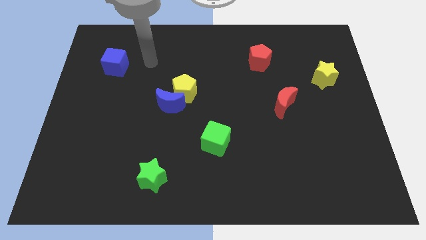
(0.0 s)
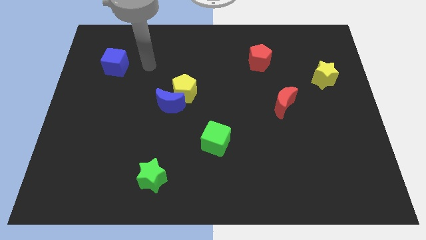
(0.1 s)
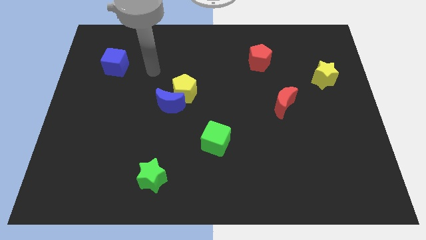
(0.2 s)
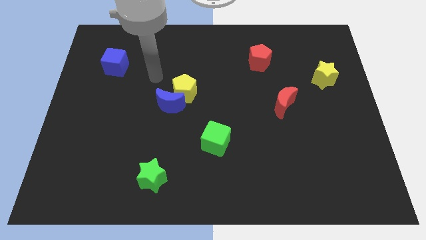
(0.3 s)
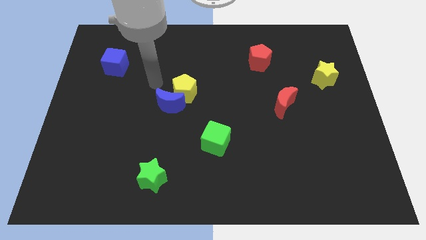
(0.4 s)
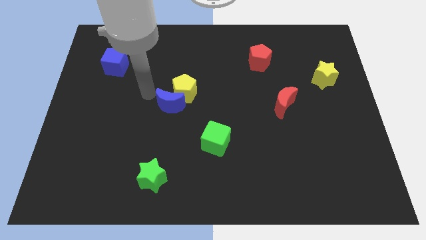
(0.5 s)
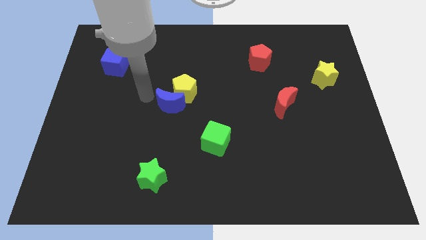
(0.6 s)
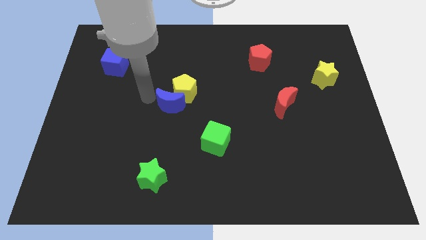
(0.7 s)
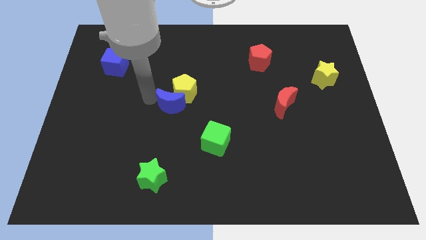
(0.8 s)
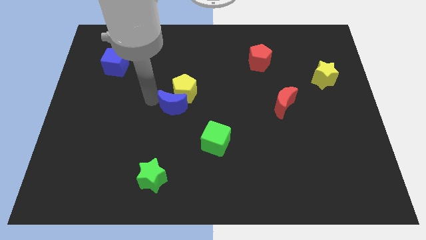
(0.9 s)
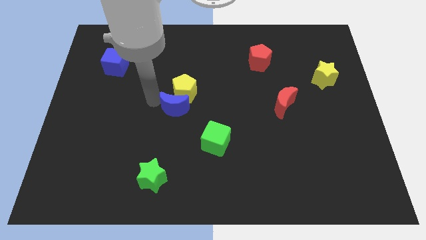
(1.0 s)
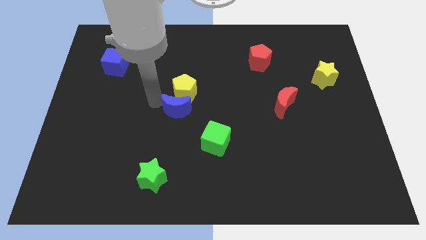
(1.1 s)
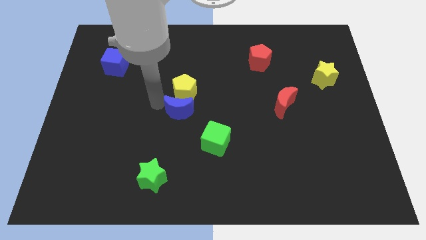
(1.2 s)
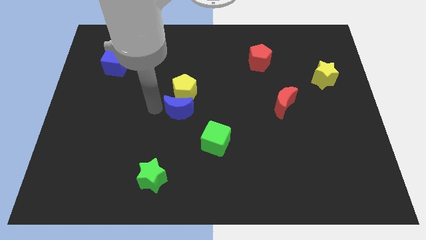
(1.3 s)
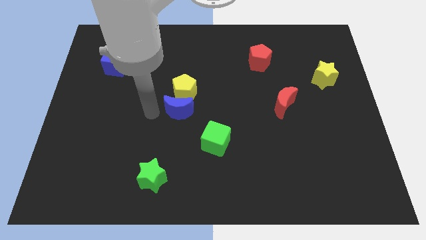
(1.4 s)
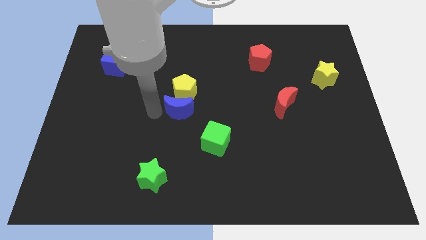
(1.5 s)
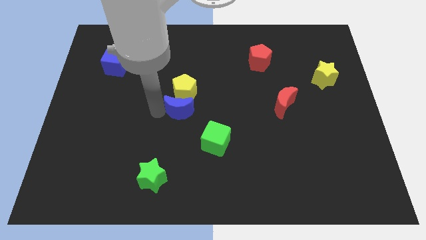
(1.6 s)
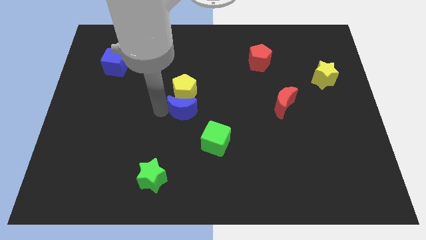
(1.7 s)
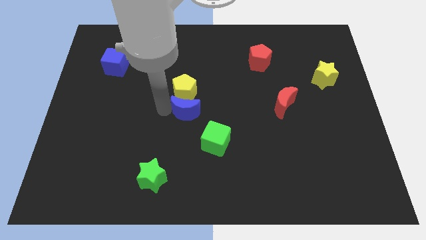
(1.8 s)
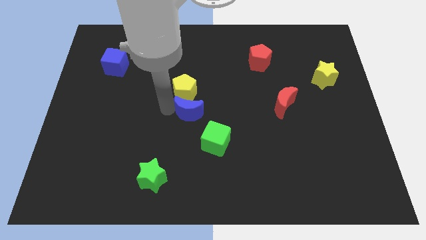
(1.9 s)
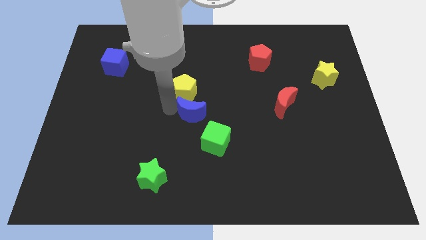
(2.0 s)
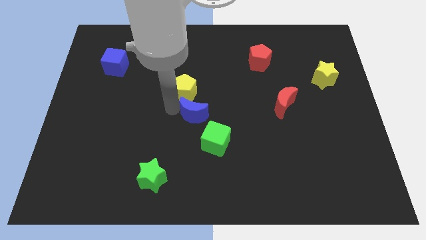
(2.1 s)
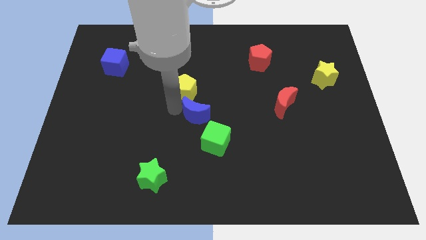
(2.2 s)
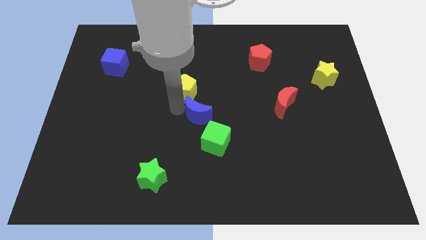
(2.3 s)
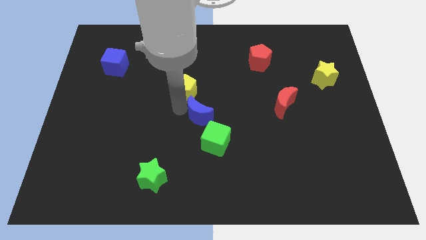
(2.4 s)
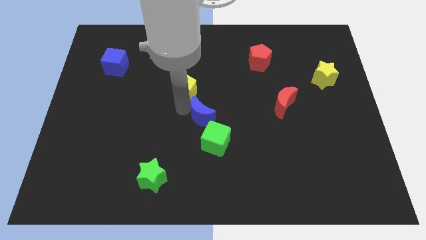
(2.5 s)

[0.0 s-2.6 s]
push the blue moon a bit to the right

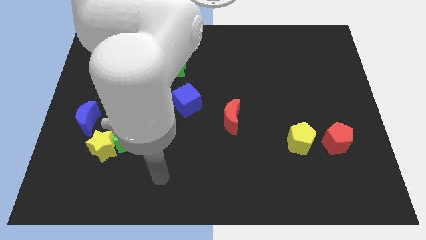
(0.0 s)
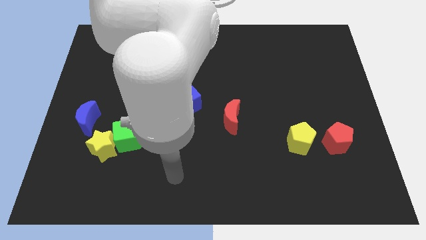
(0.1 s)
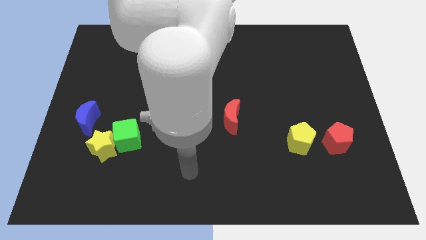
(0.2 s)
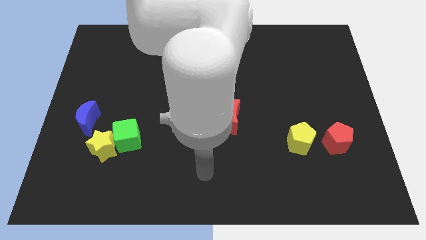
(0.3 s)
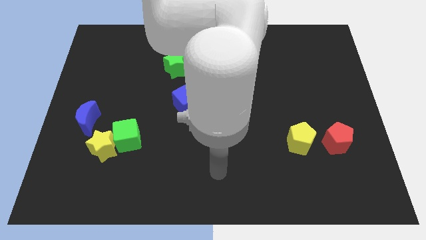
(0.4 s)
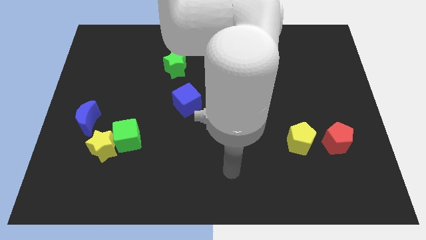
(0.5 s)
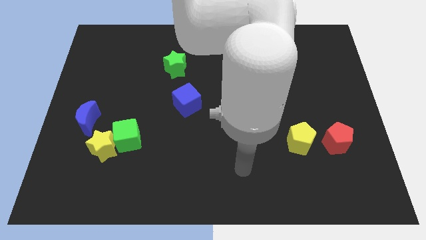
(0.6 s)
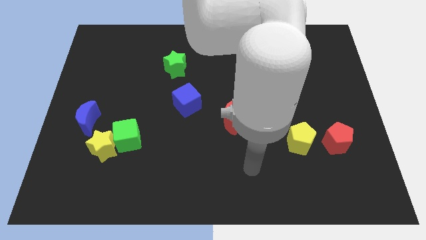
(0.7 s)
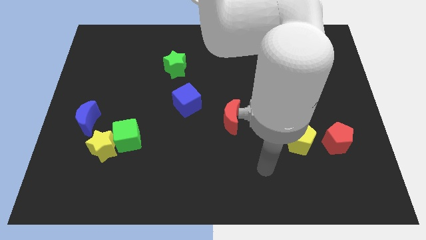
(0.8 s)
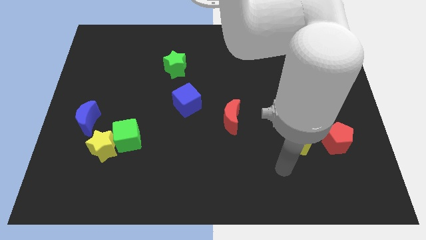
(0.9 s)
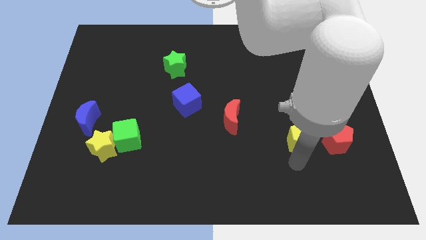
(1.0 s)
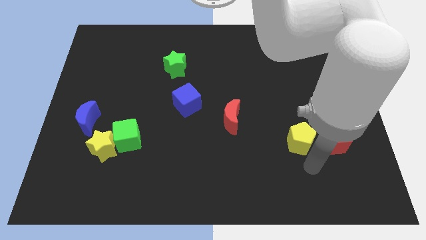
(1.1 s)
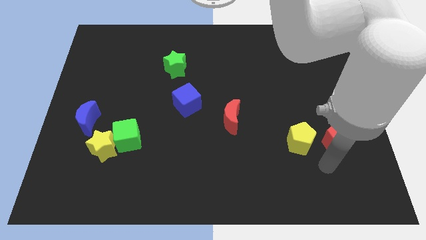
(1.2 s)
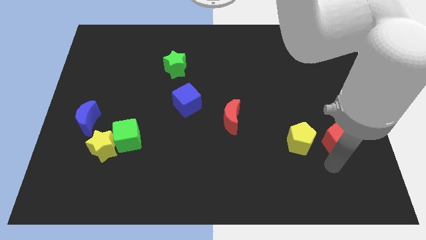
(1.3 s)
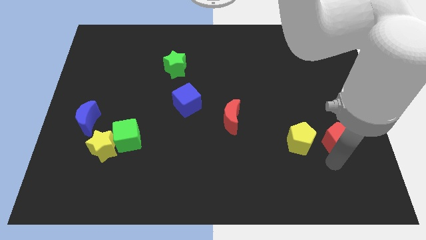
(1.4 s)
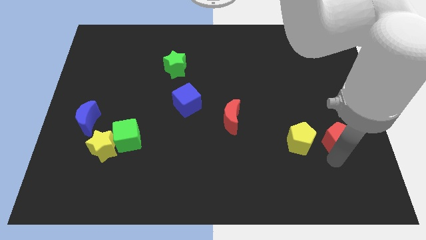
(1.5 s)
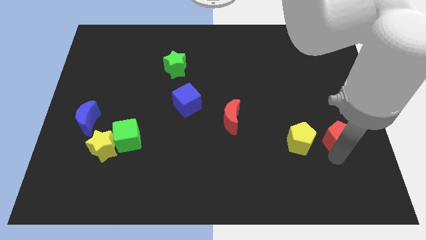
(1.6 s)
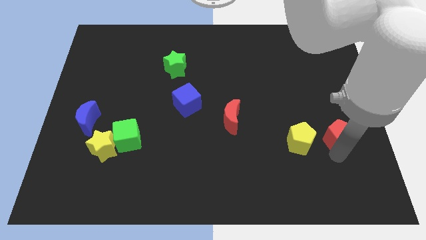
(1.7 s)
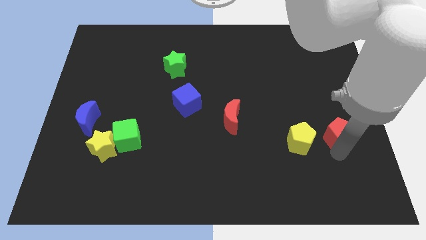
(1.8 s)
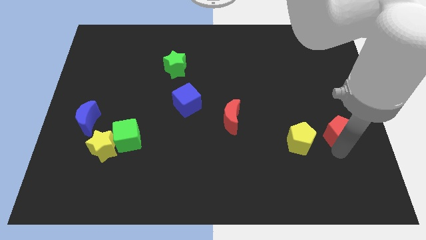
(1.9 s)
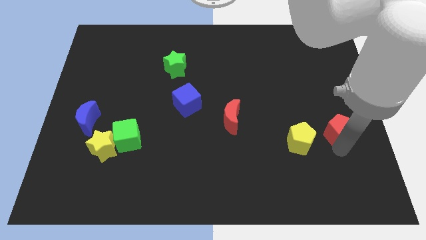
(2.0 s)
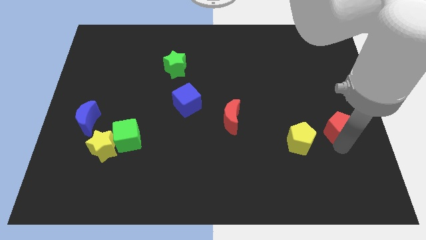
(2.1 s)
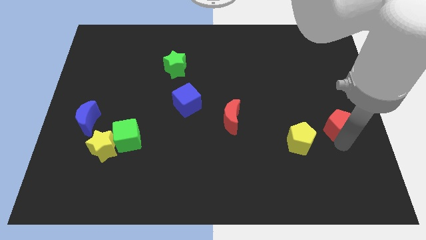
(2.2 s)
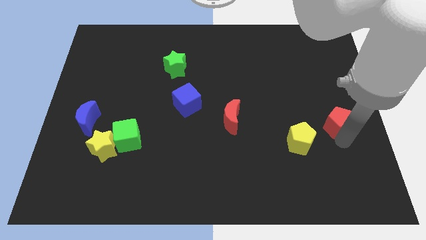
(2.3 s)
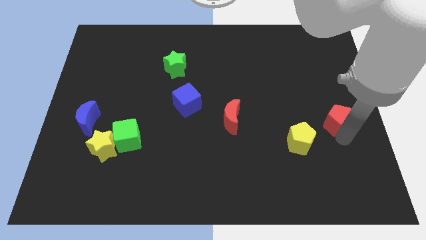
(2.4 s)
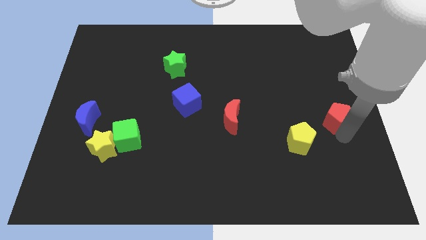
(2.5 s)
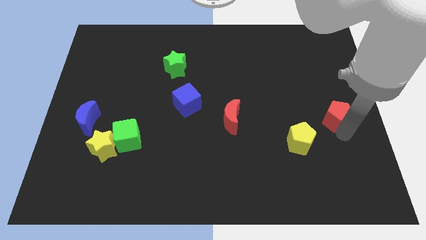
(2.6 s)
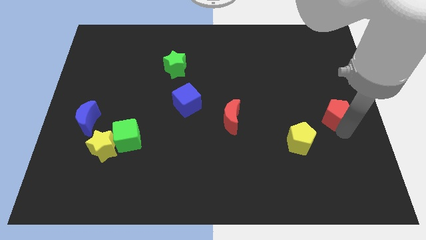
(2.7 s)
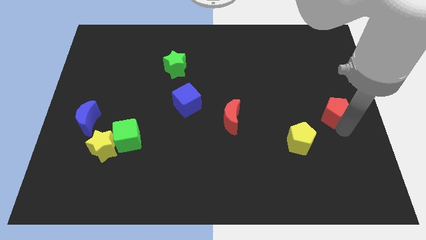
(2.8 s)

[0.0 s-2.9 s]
slightly slide the red pentagon up

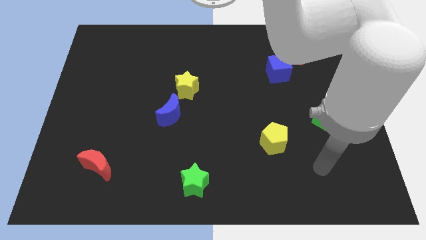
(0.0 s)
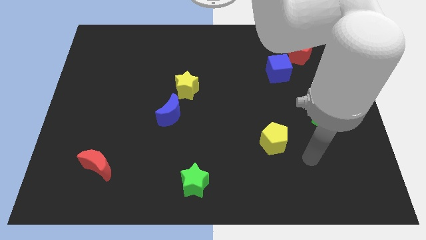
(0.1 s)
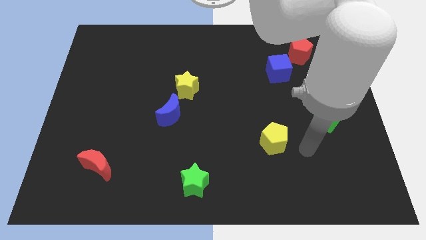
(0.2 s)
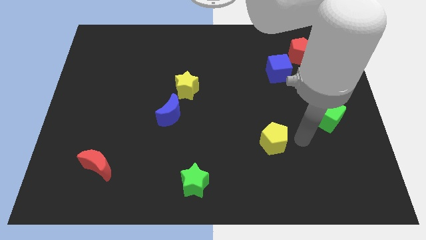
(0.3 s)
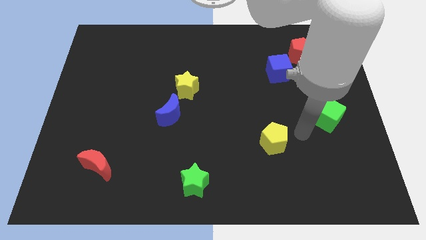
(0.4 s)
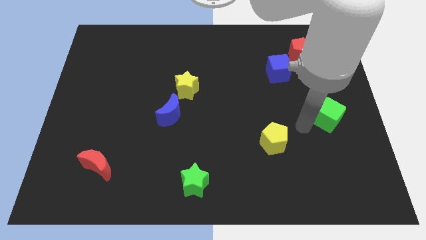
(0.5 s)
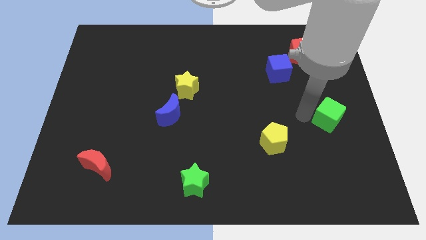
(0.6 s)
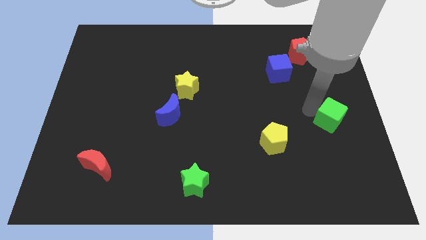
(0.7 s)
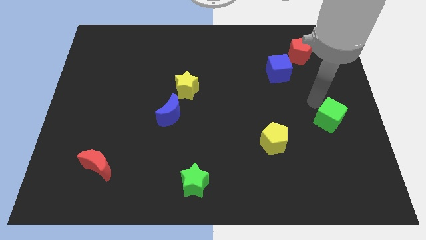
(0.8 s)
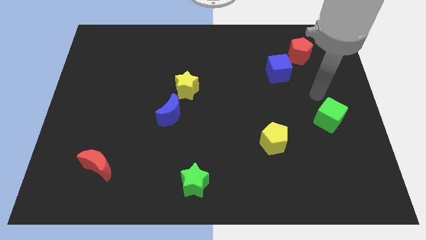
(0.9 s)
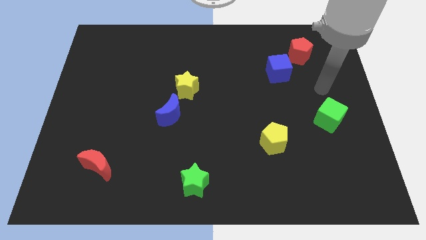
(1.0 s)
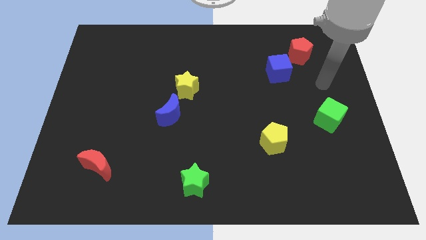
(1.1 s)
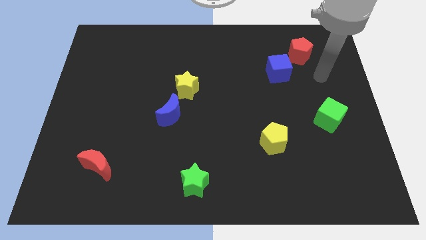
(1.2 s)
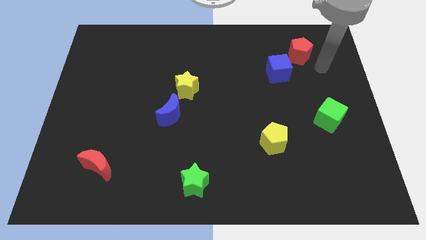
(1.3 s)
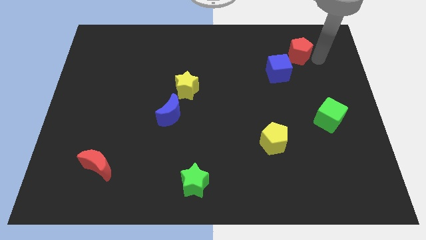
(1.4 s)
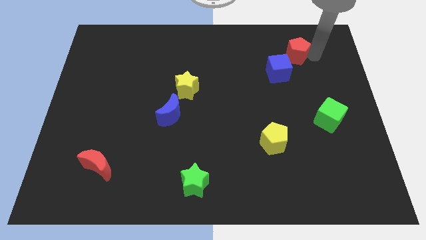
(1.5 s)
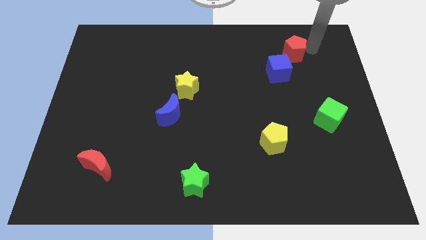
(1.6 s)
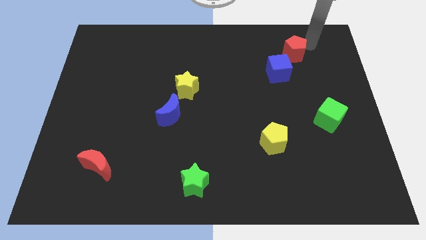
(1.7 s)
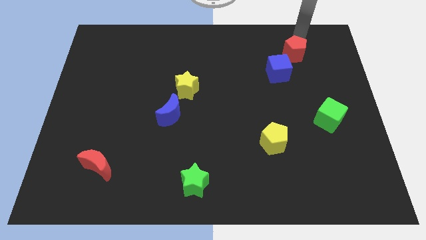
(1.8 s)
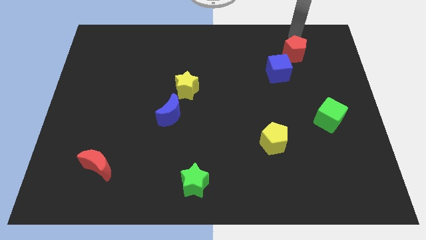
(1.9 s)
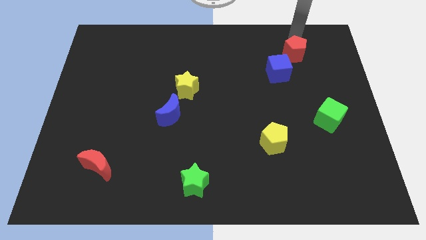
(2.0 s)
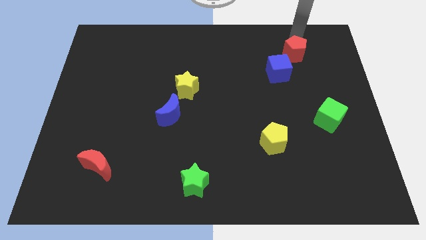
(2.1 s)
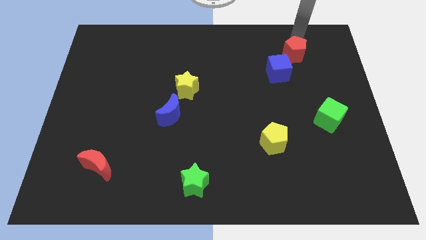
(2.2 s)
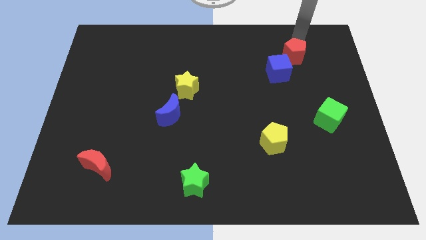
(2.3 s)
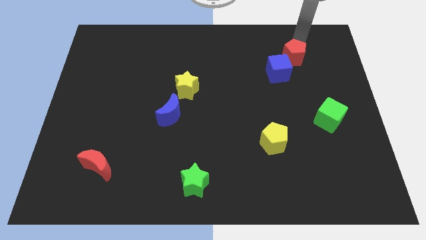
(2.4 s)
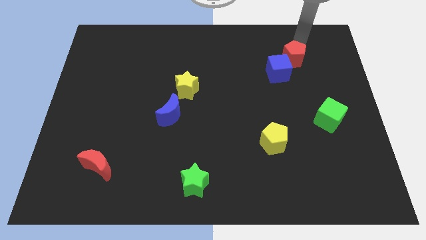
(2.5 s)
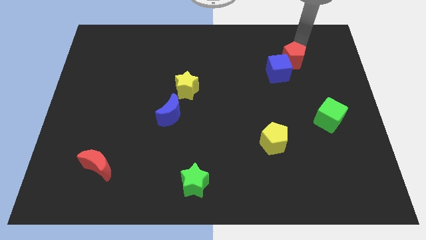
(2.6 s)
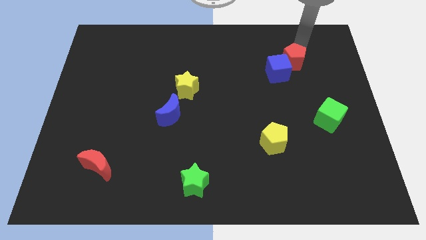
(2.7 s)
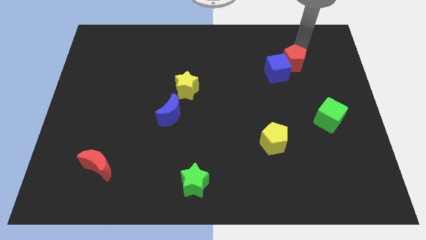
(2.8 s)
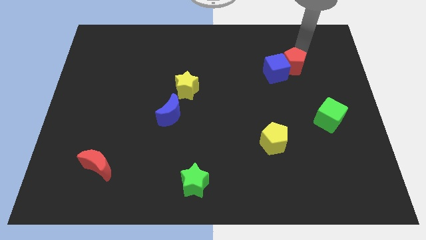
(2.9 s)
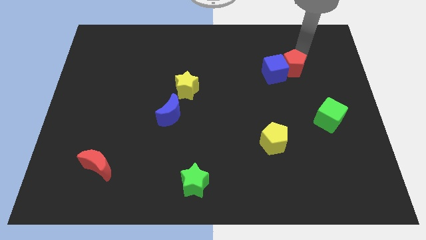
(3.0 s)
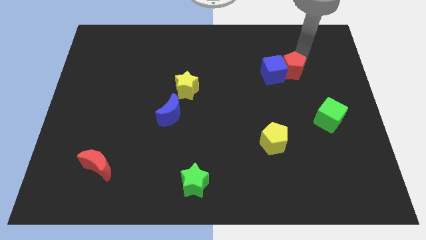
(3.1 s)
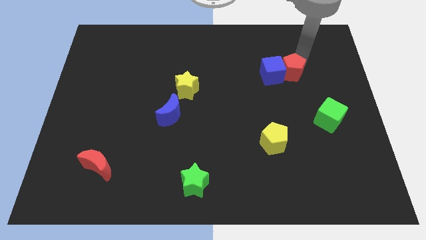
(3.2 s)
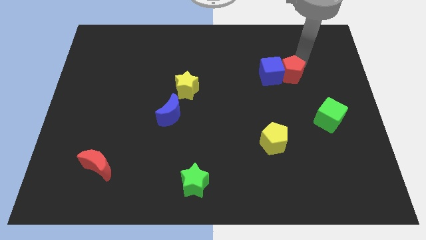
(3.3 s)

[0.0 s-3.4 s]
move the red pentagon a little bit diagonally down and left
